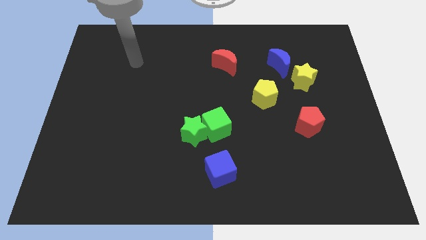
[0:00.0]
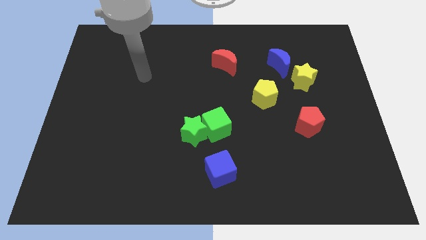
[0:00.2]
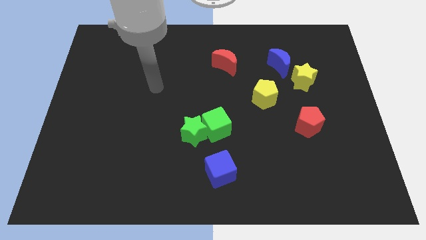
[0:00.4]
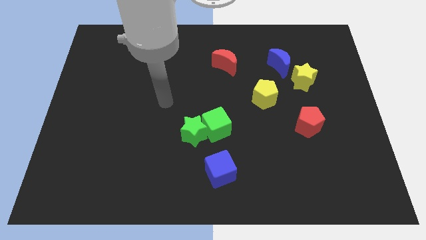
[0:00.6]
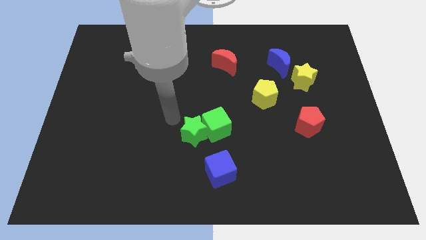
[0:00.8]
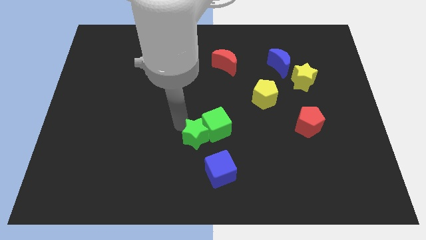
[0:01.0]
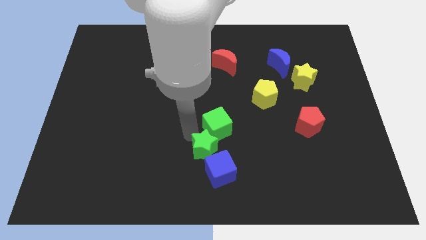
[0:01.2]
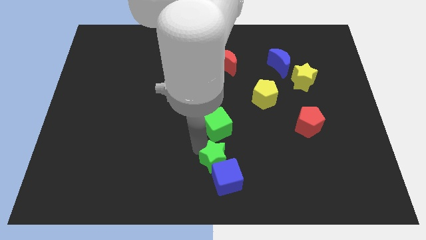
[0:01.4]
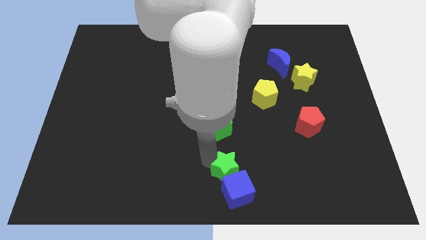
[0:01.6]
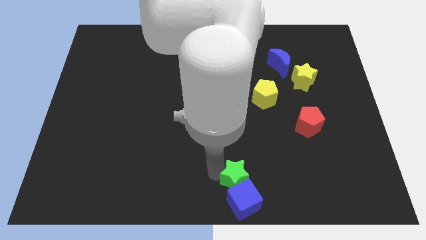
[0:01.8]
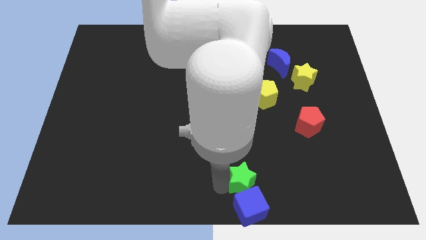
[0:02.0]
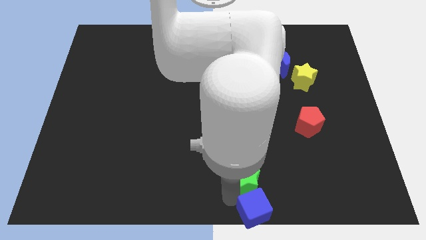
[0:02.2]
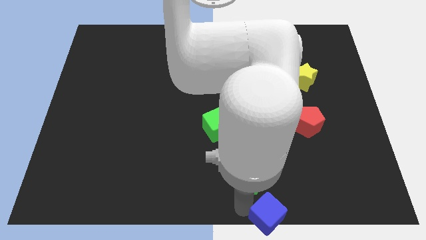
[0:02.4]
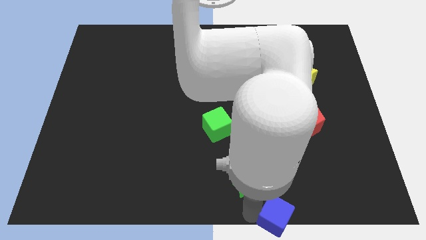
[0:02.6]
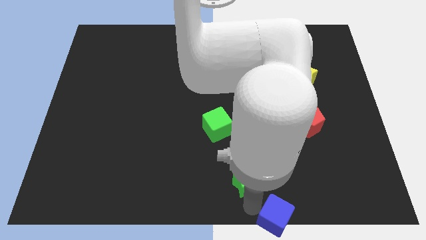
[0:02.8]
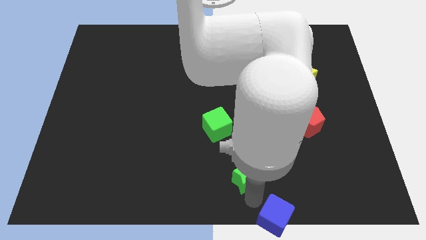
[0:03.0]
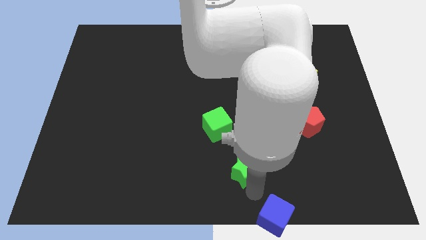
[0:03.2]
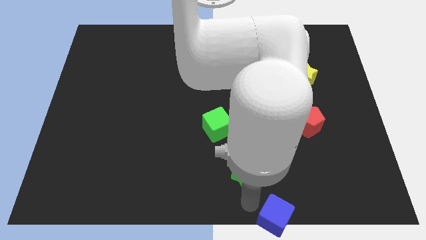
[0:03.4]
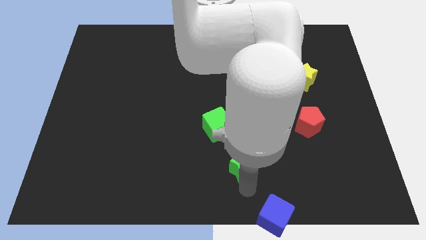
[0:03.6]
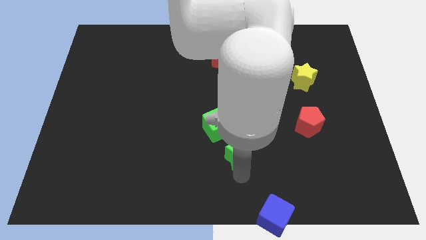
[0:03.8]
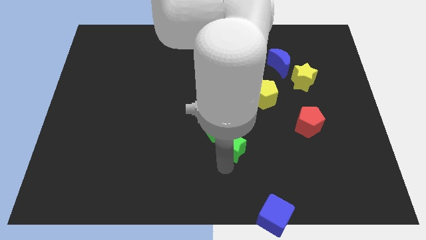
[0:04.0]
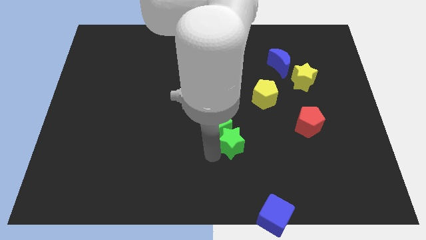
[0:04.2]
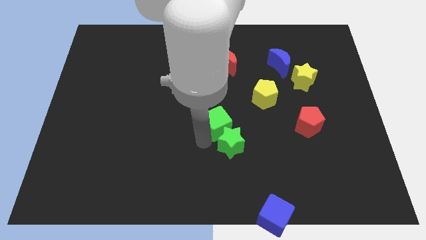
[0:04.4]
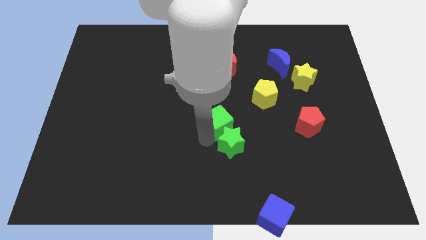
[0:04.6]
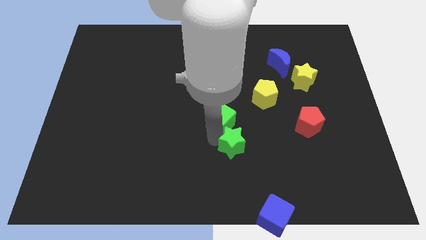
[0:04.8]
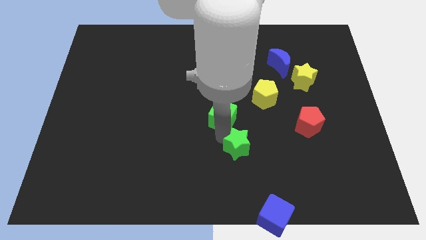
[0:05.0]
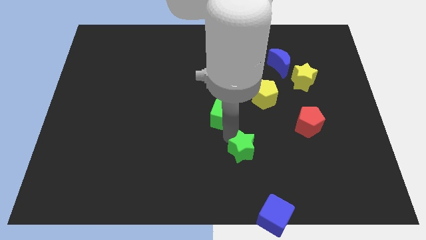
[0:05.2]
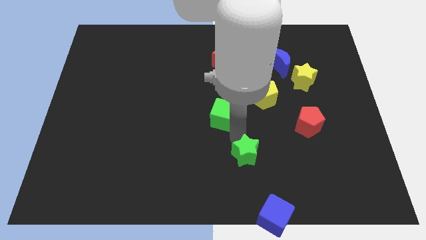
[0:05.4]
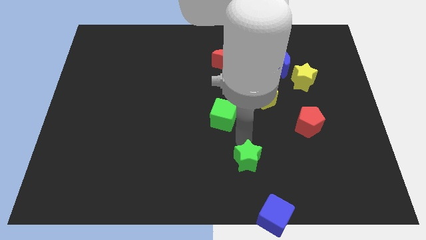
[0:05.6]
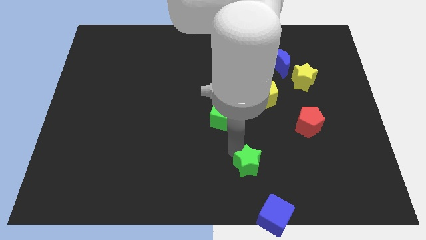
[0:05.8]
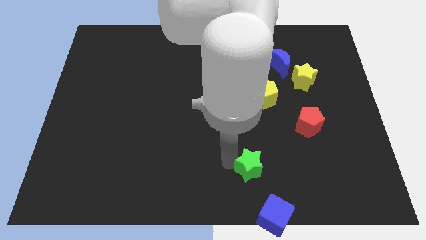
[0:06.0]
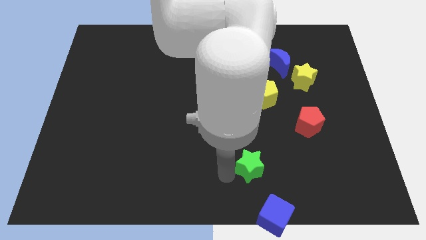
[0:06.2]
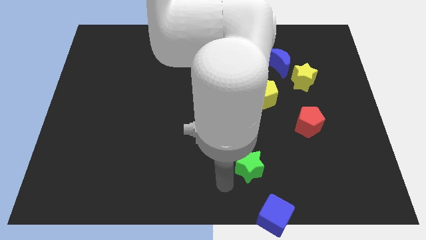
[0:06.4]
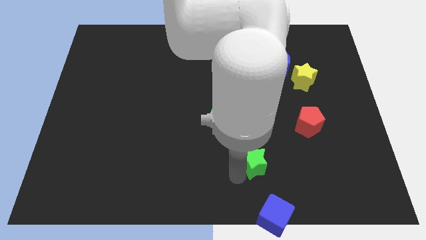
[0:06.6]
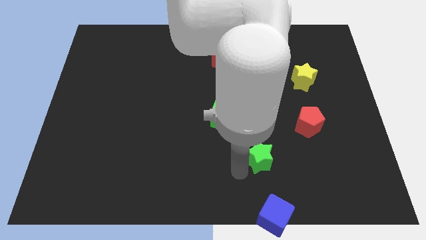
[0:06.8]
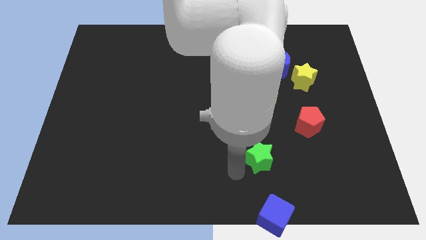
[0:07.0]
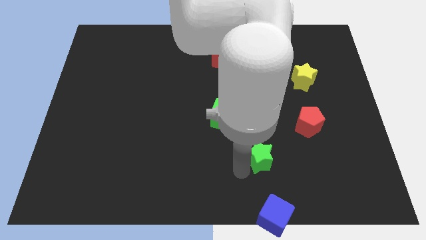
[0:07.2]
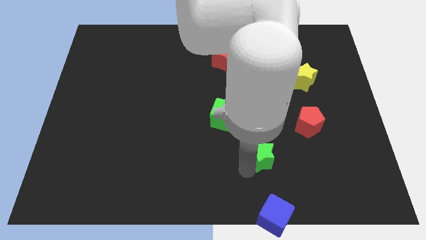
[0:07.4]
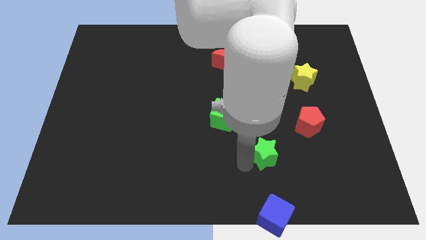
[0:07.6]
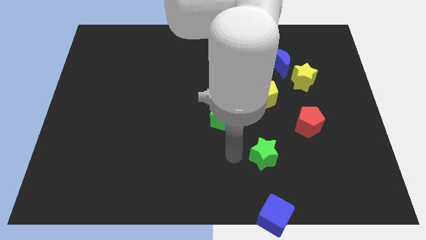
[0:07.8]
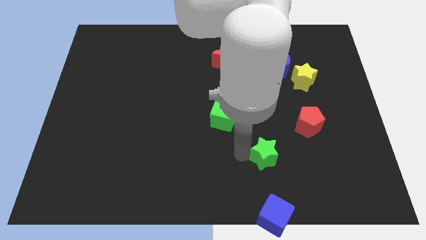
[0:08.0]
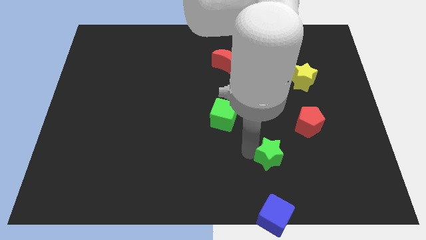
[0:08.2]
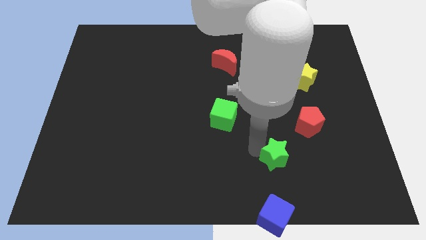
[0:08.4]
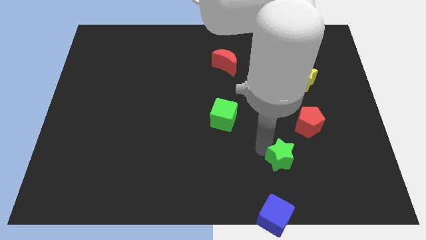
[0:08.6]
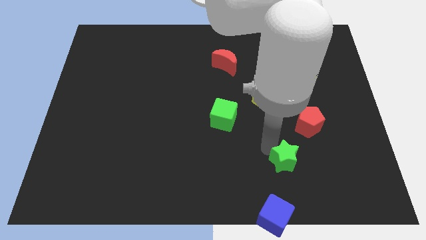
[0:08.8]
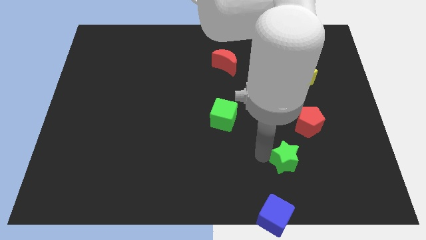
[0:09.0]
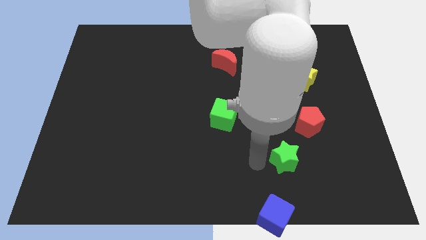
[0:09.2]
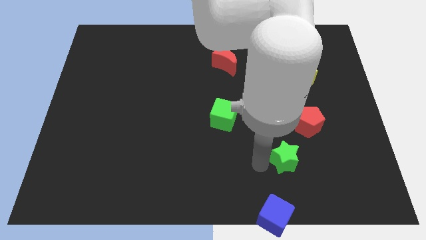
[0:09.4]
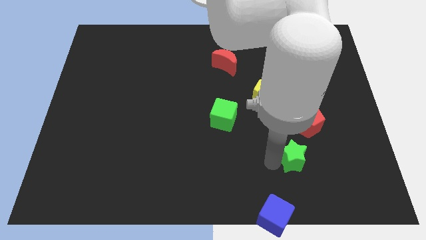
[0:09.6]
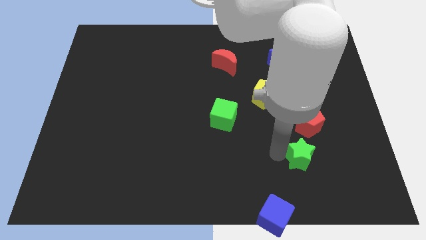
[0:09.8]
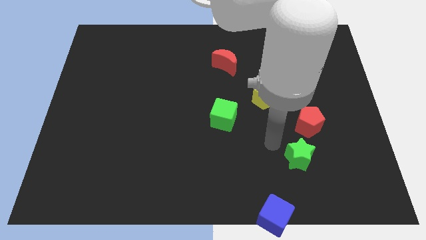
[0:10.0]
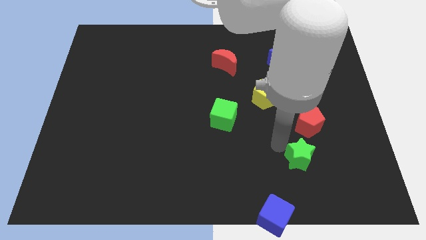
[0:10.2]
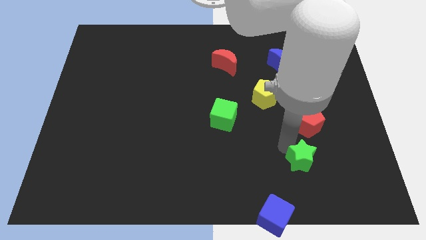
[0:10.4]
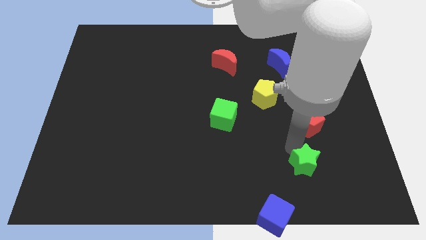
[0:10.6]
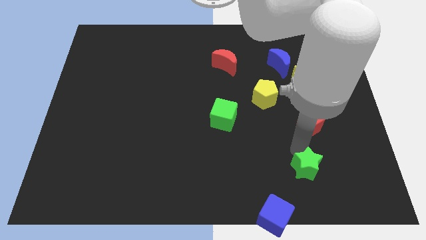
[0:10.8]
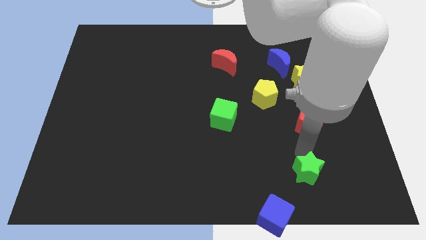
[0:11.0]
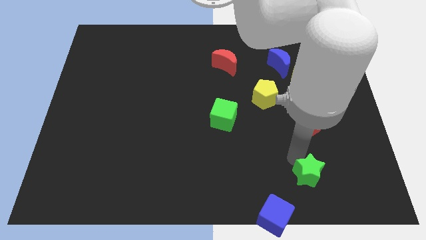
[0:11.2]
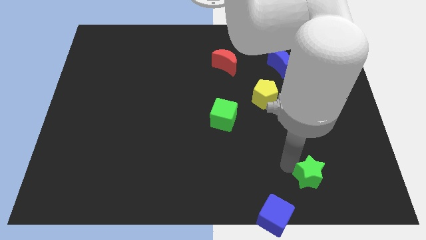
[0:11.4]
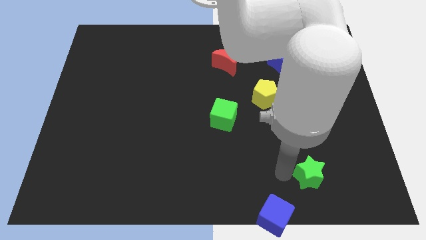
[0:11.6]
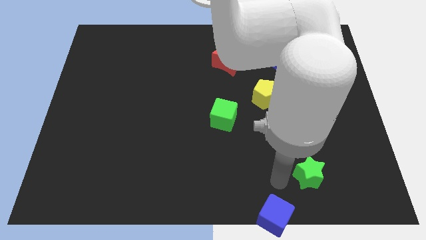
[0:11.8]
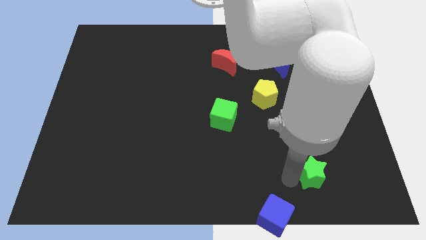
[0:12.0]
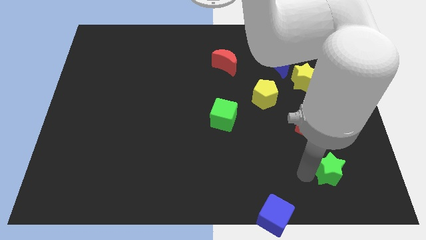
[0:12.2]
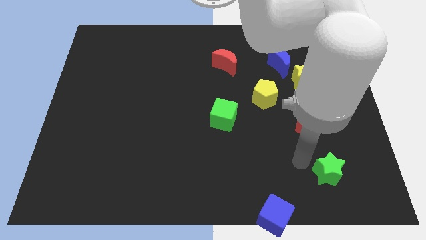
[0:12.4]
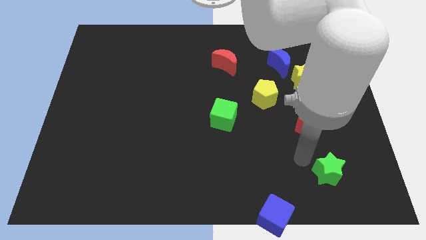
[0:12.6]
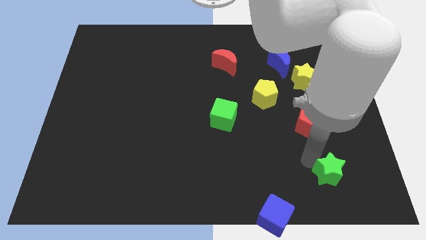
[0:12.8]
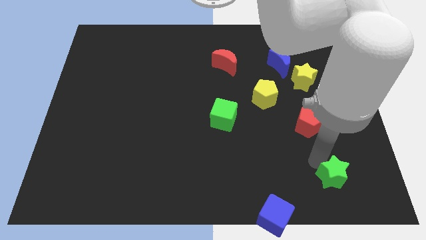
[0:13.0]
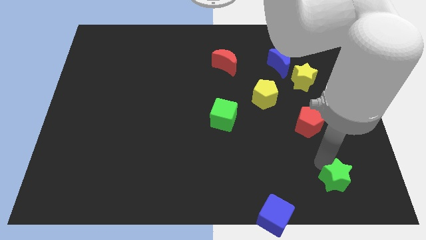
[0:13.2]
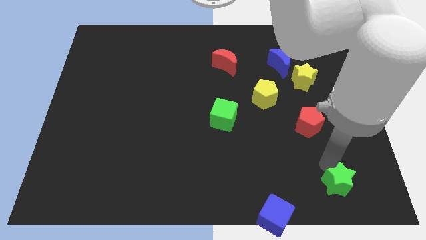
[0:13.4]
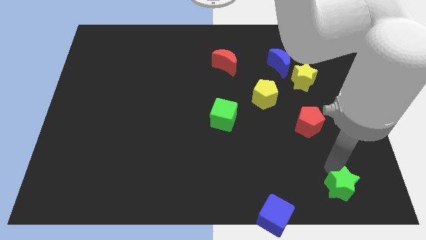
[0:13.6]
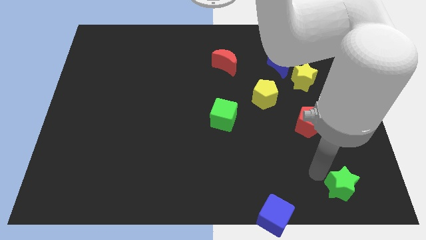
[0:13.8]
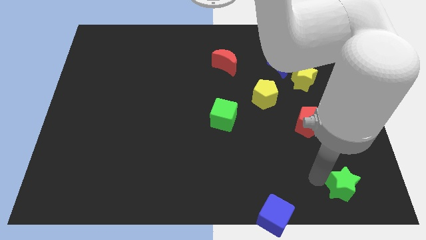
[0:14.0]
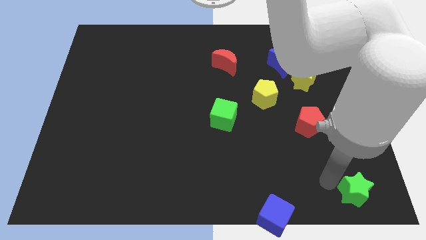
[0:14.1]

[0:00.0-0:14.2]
push the green star to the bottom right of the board

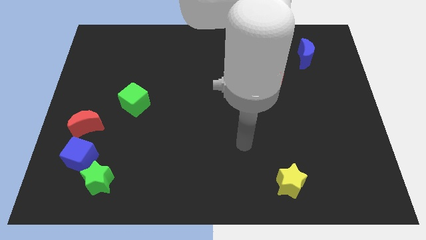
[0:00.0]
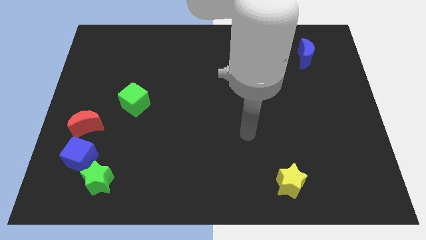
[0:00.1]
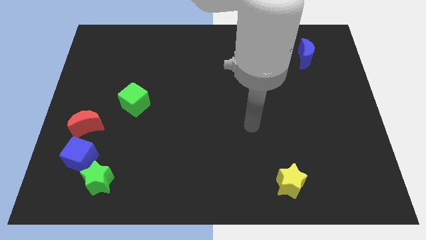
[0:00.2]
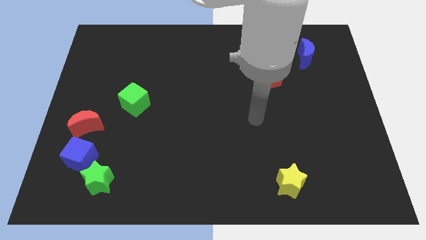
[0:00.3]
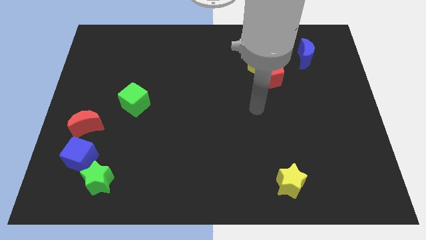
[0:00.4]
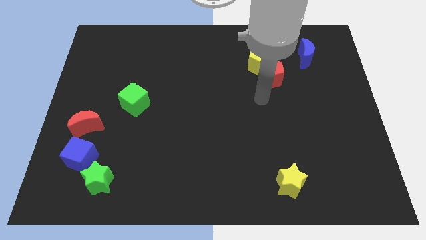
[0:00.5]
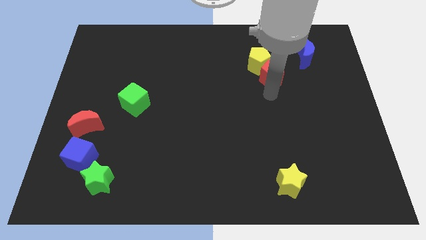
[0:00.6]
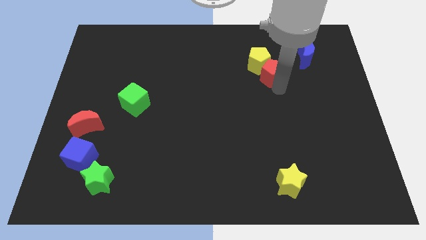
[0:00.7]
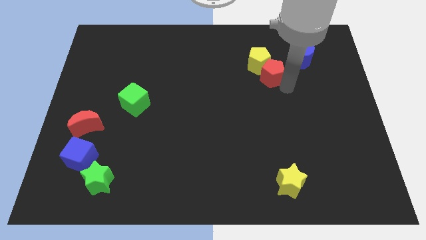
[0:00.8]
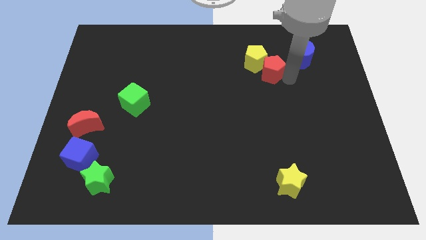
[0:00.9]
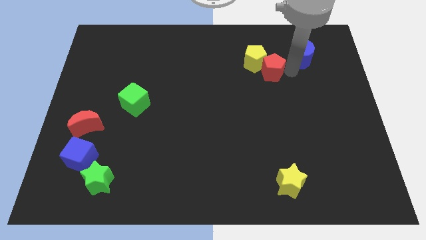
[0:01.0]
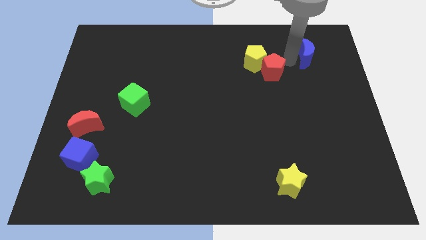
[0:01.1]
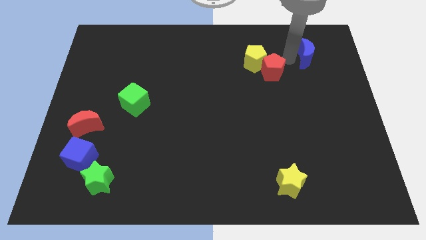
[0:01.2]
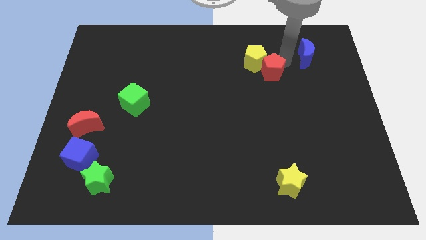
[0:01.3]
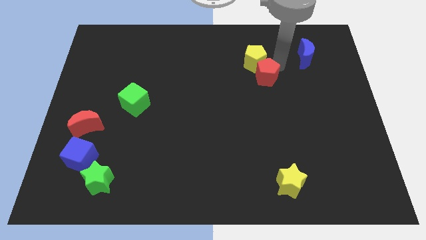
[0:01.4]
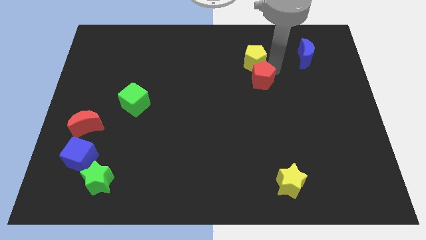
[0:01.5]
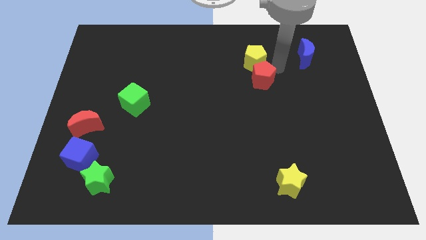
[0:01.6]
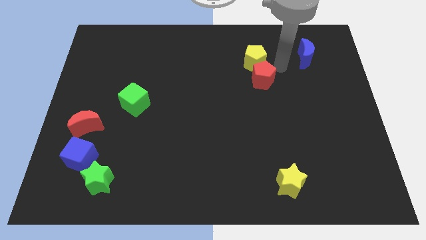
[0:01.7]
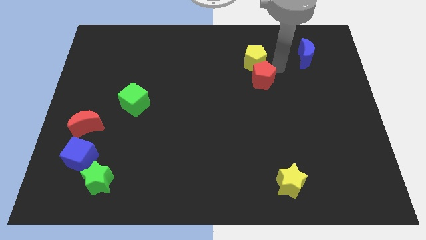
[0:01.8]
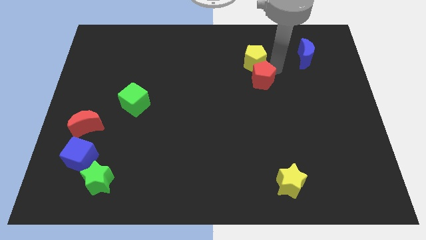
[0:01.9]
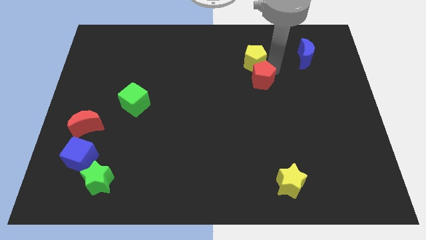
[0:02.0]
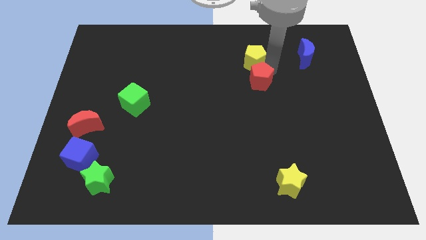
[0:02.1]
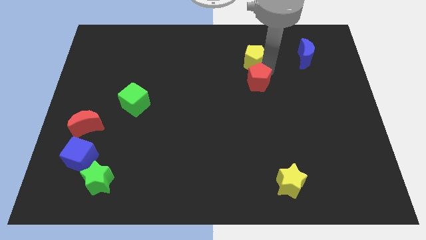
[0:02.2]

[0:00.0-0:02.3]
put the red pentagon to the center
